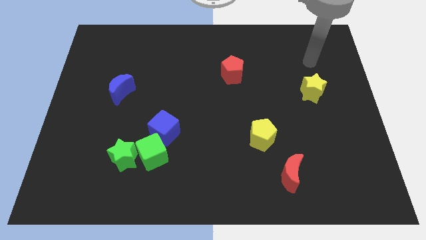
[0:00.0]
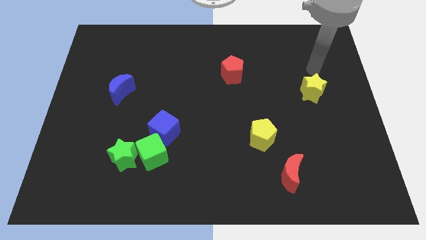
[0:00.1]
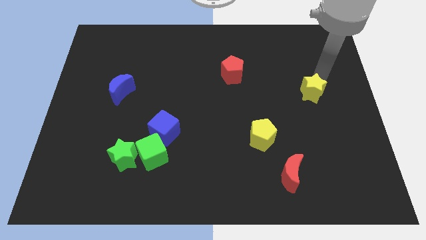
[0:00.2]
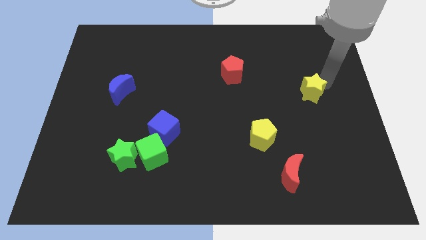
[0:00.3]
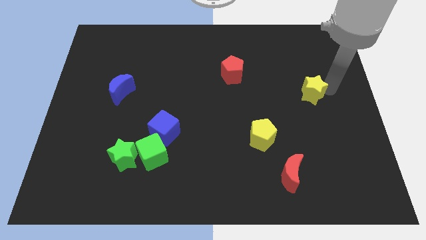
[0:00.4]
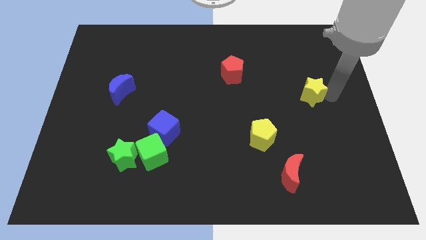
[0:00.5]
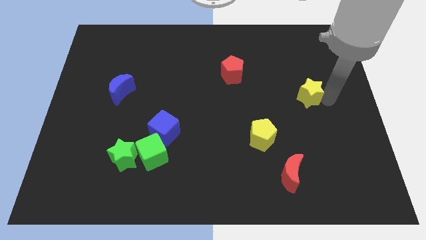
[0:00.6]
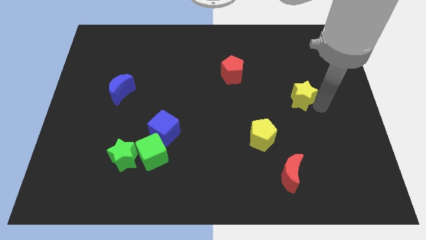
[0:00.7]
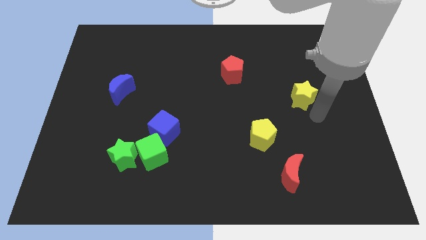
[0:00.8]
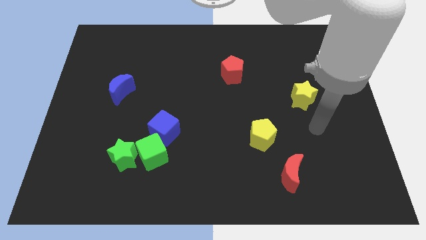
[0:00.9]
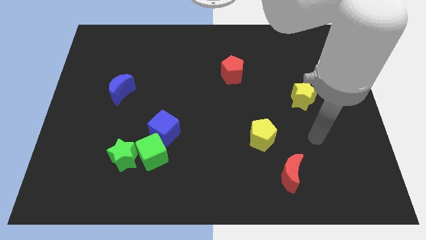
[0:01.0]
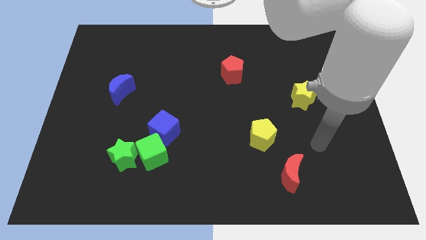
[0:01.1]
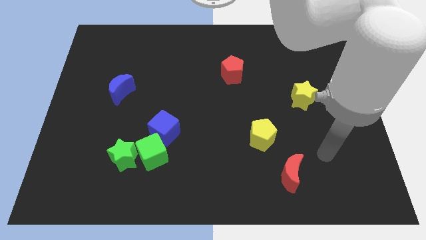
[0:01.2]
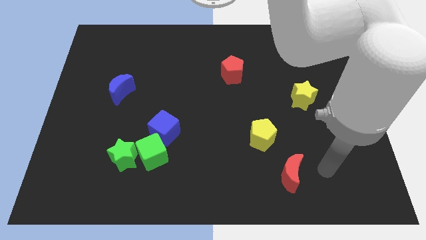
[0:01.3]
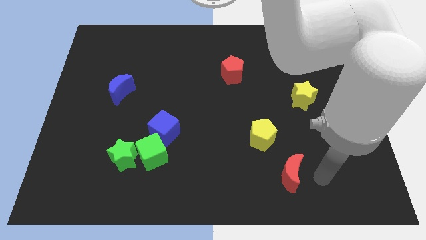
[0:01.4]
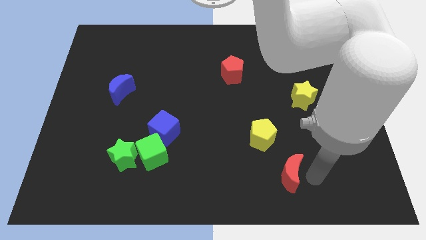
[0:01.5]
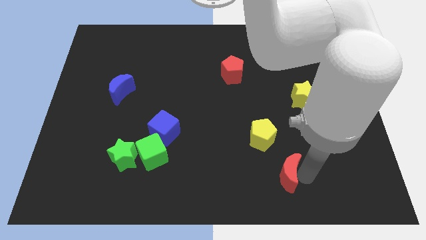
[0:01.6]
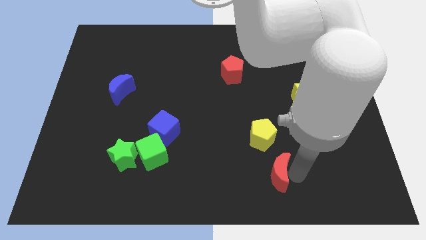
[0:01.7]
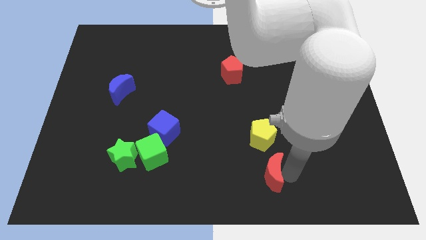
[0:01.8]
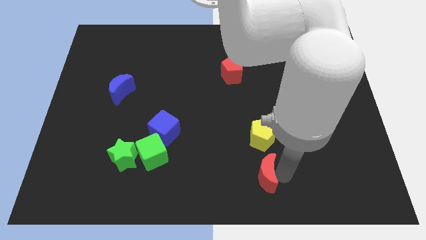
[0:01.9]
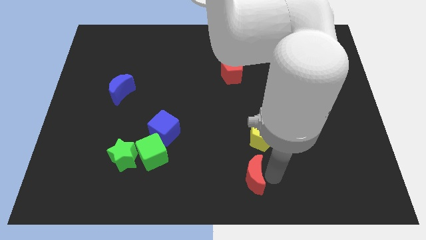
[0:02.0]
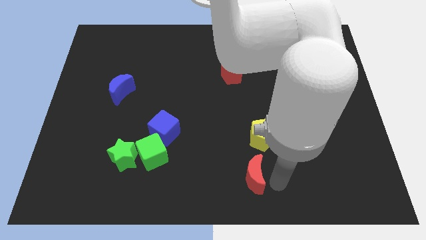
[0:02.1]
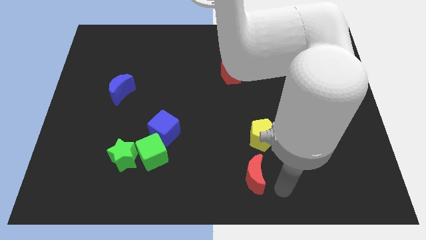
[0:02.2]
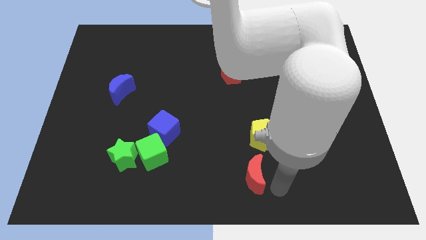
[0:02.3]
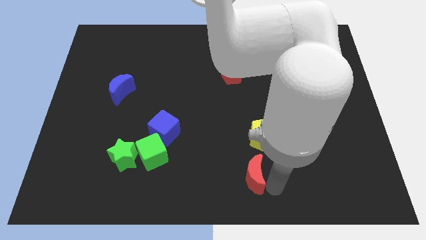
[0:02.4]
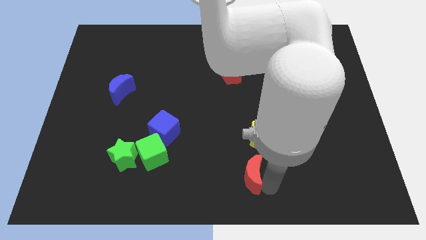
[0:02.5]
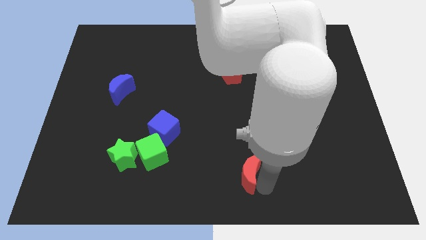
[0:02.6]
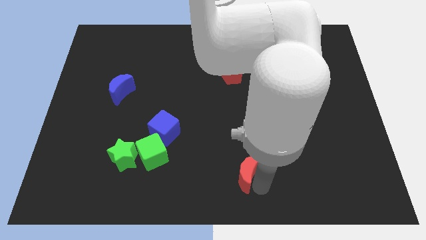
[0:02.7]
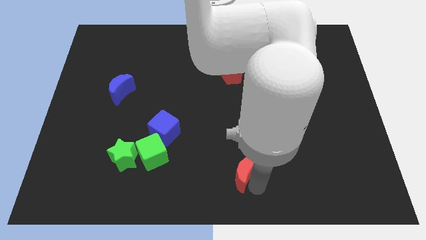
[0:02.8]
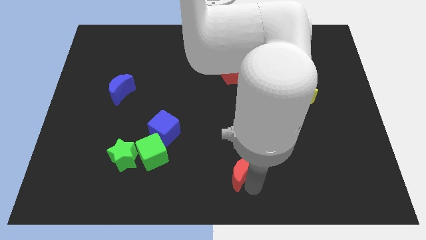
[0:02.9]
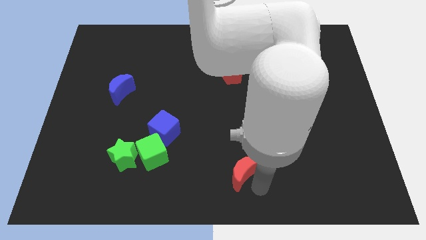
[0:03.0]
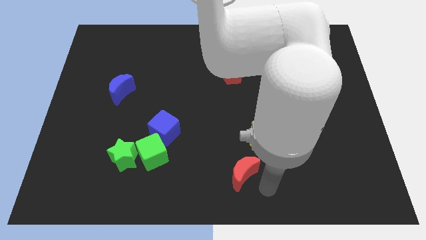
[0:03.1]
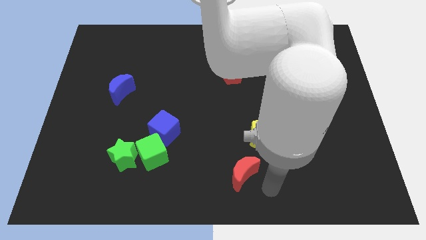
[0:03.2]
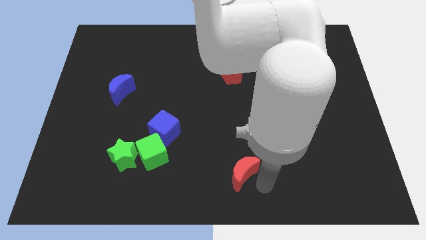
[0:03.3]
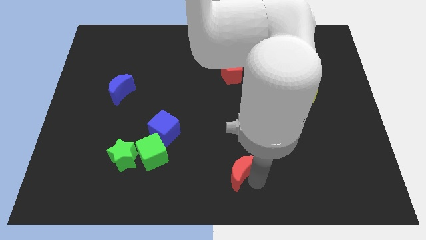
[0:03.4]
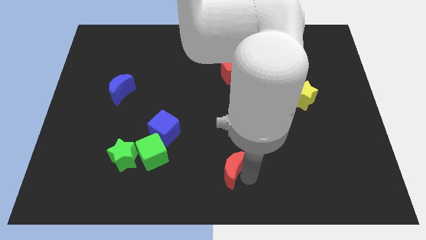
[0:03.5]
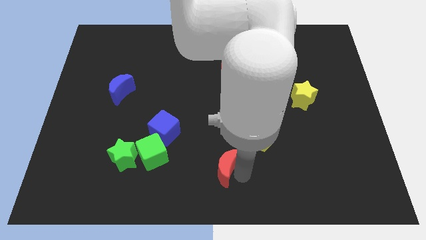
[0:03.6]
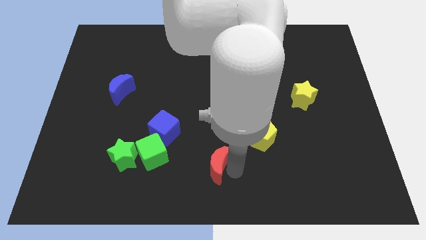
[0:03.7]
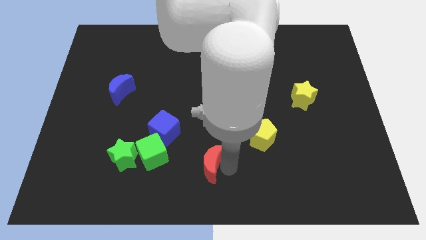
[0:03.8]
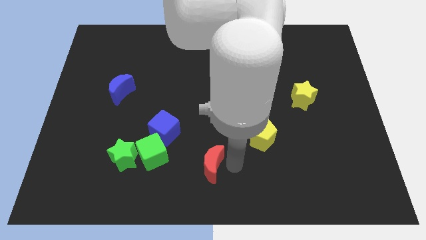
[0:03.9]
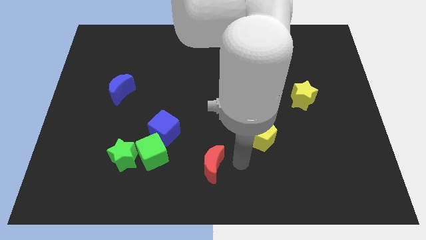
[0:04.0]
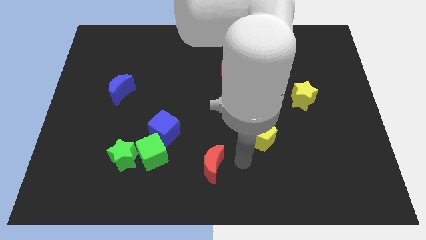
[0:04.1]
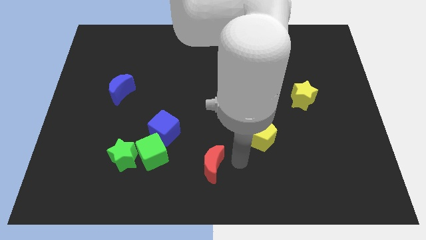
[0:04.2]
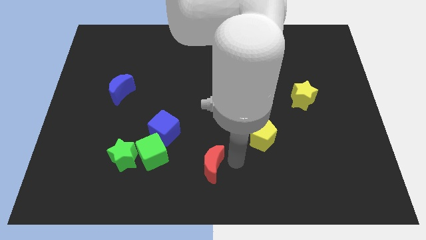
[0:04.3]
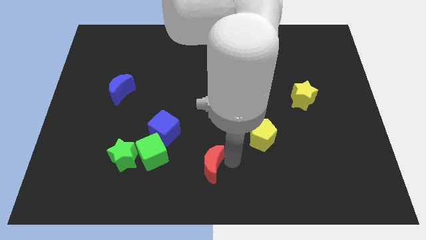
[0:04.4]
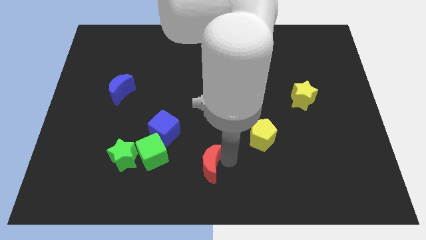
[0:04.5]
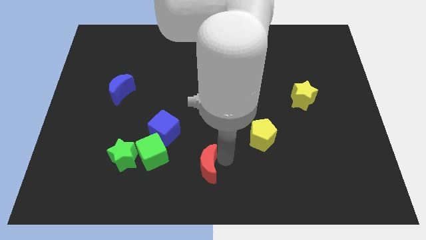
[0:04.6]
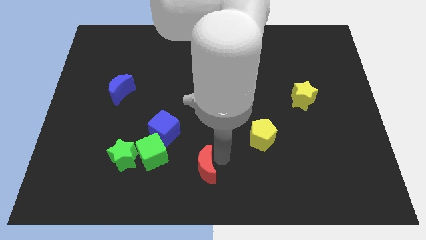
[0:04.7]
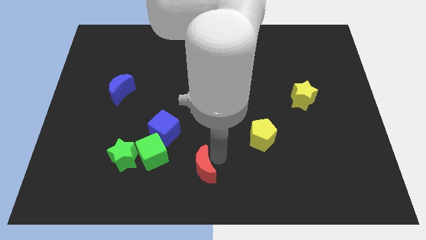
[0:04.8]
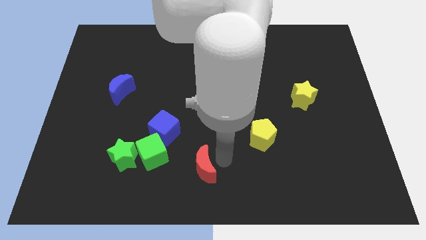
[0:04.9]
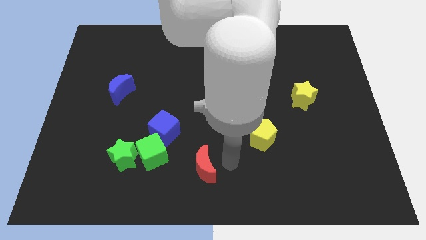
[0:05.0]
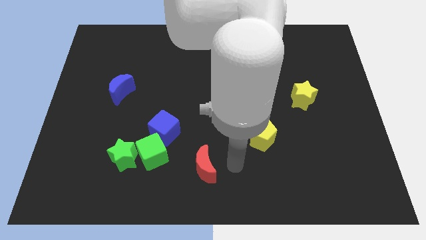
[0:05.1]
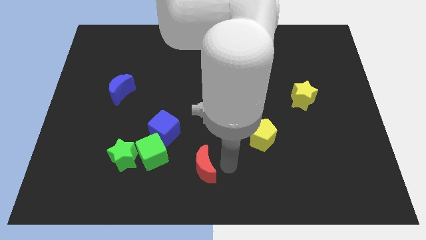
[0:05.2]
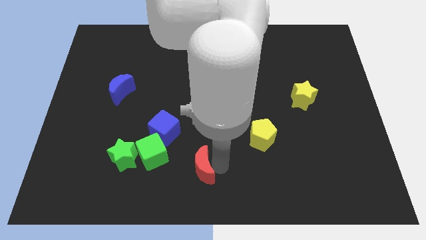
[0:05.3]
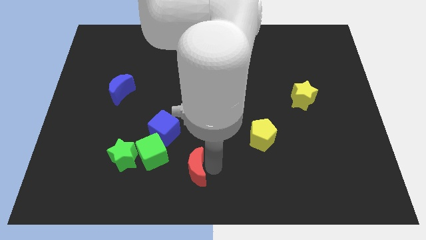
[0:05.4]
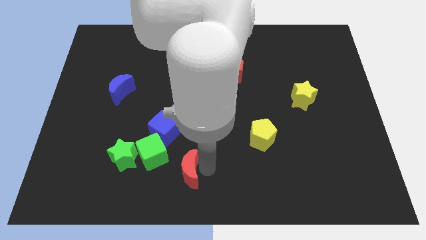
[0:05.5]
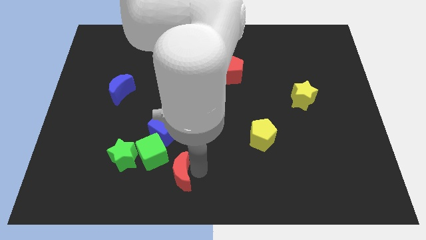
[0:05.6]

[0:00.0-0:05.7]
put the red moon to the bottom side of the blue cube

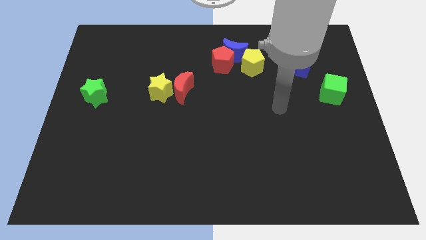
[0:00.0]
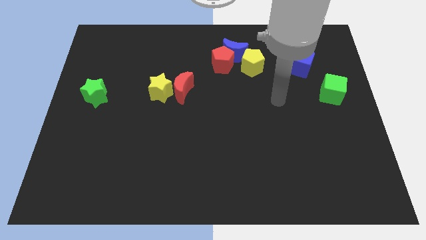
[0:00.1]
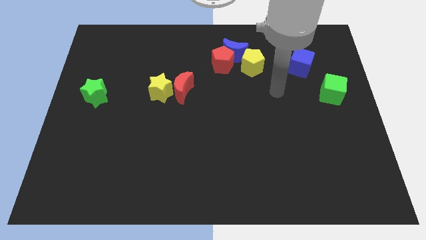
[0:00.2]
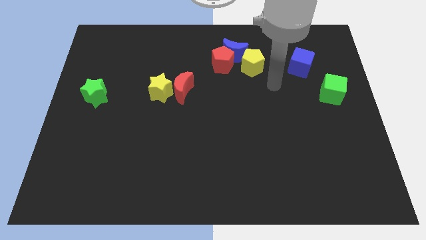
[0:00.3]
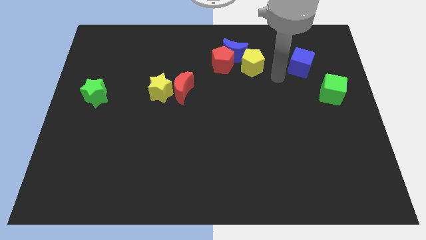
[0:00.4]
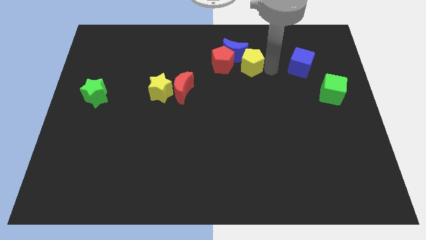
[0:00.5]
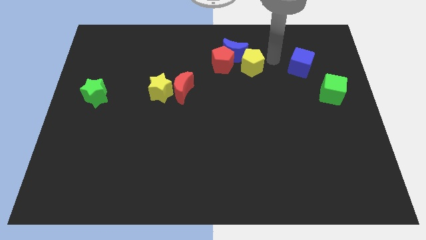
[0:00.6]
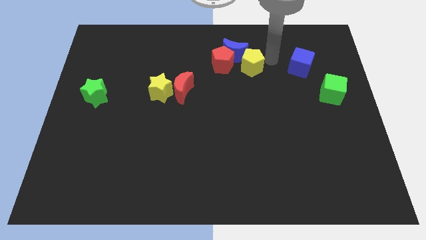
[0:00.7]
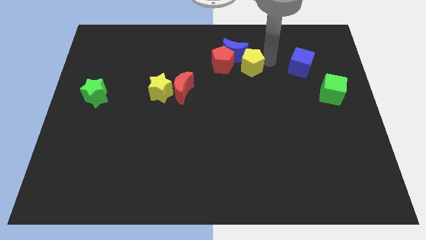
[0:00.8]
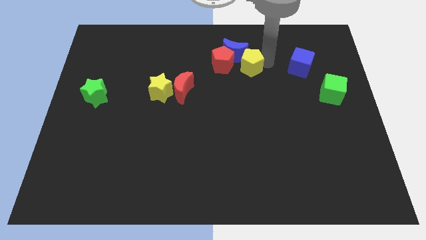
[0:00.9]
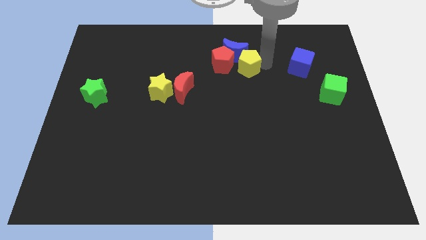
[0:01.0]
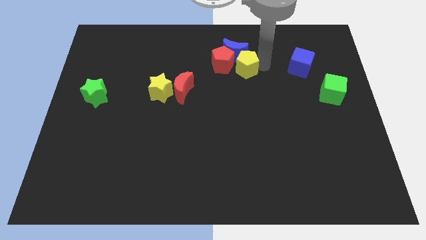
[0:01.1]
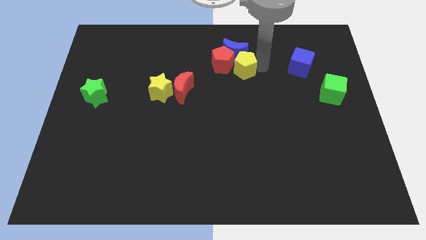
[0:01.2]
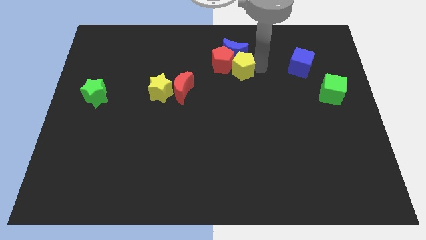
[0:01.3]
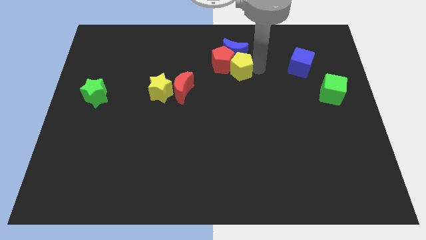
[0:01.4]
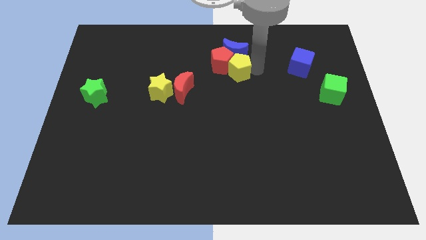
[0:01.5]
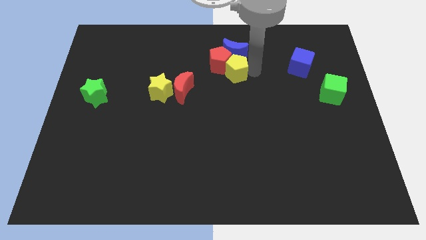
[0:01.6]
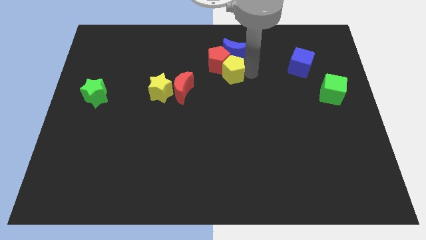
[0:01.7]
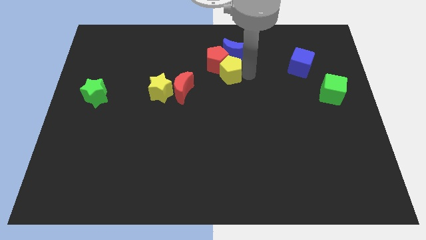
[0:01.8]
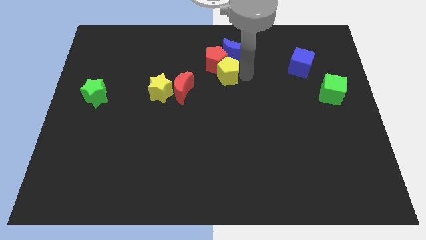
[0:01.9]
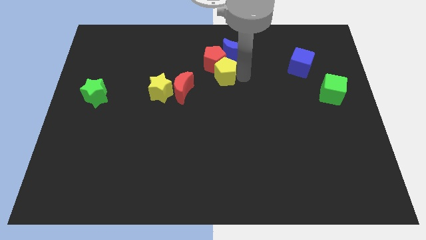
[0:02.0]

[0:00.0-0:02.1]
push the yellow pentagon to the top right side of the red moon
